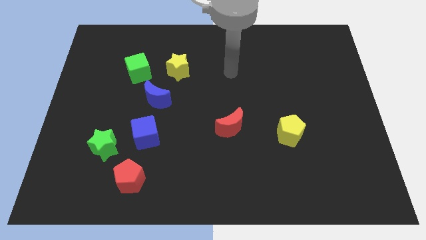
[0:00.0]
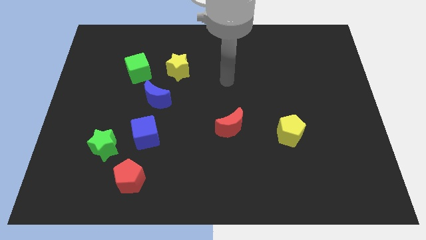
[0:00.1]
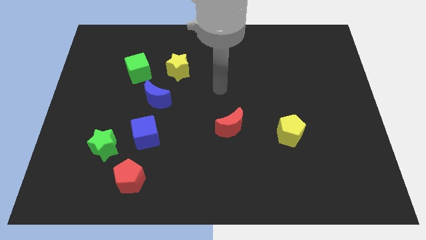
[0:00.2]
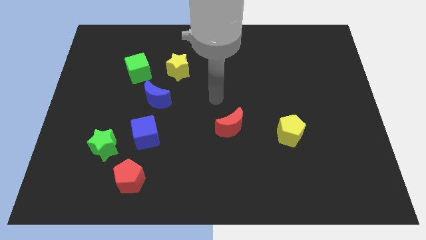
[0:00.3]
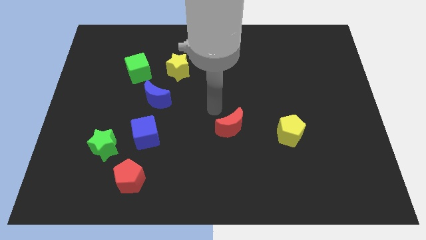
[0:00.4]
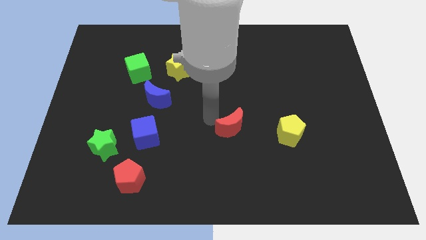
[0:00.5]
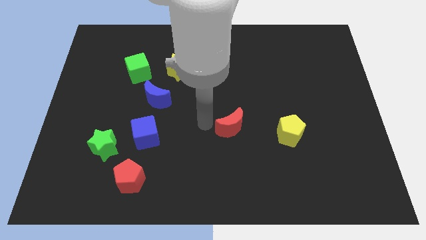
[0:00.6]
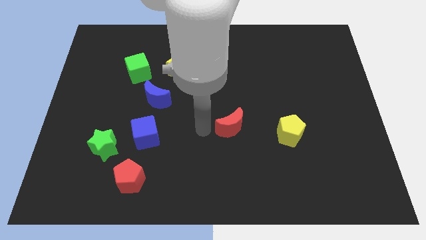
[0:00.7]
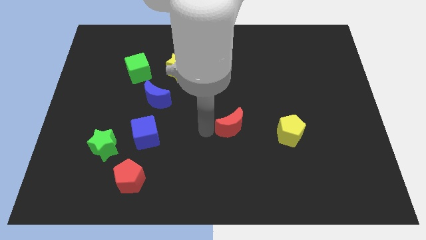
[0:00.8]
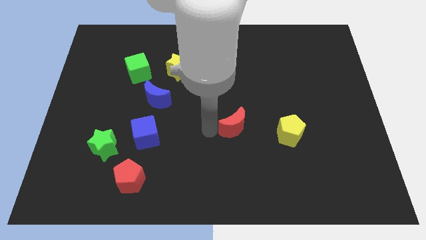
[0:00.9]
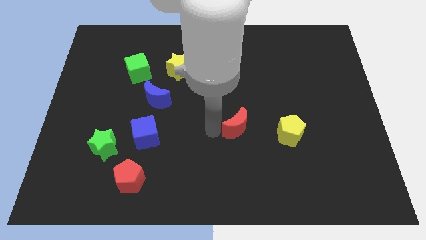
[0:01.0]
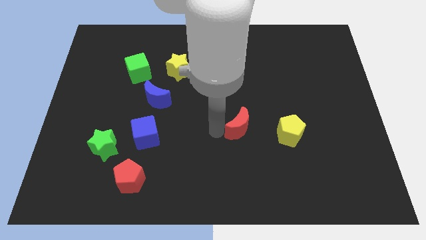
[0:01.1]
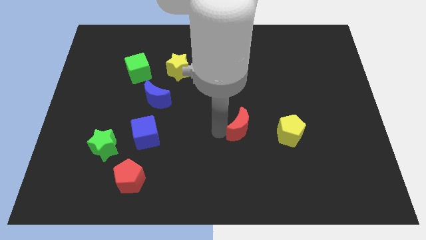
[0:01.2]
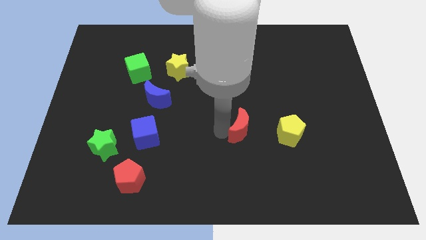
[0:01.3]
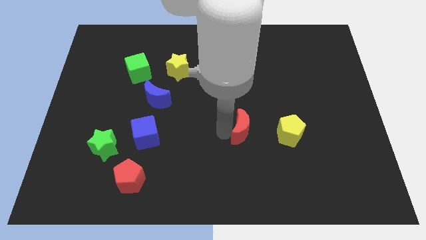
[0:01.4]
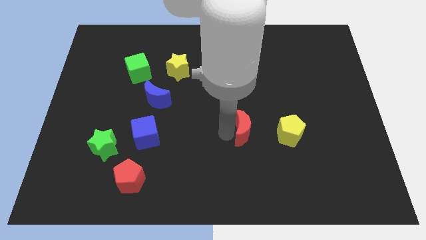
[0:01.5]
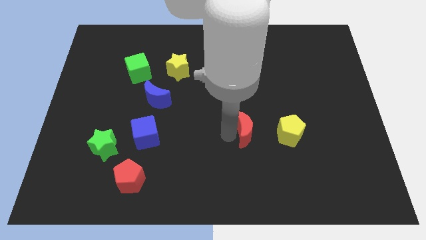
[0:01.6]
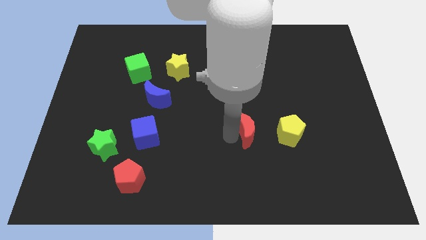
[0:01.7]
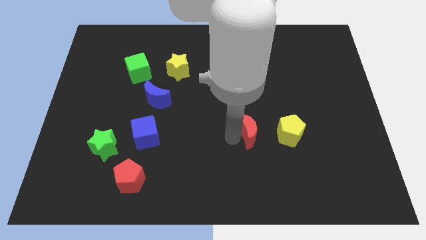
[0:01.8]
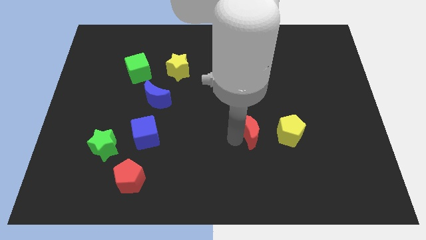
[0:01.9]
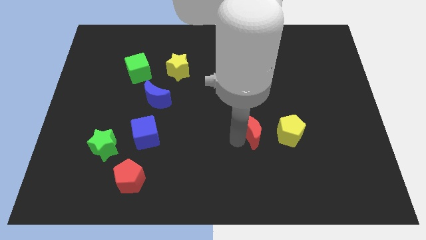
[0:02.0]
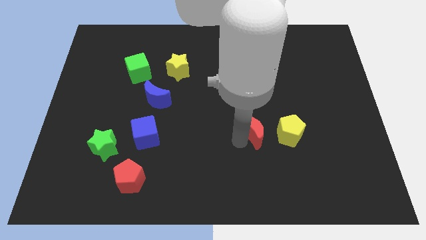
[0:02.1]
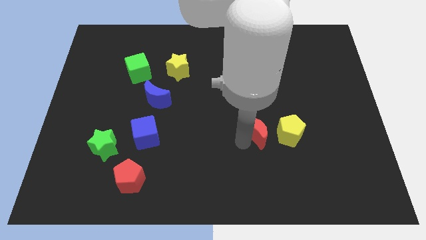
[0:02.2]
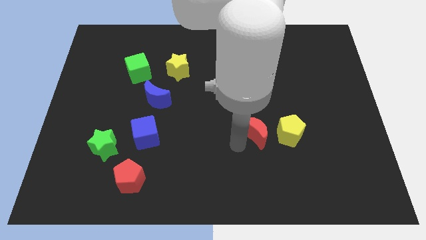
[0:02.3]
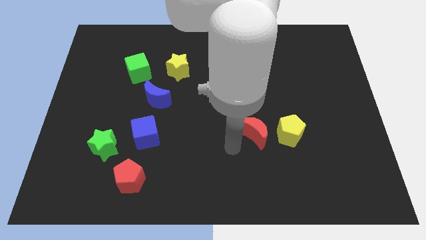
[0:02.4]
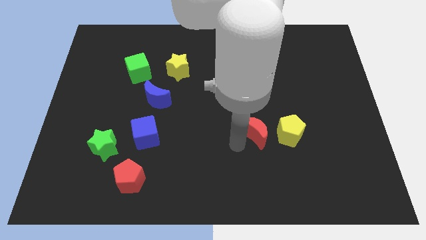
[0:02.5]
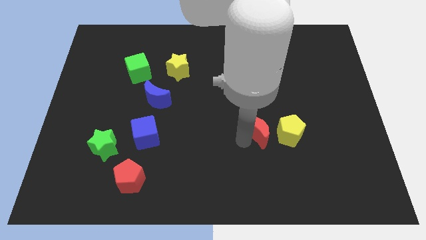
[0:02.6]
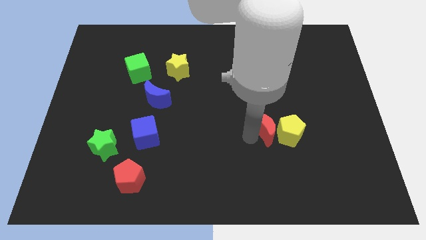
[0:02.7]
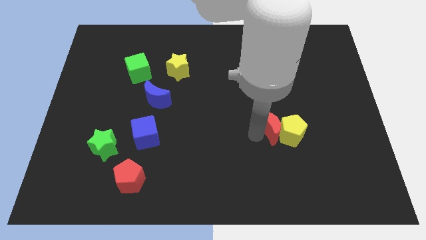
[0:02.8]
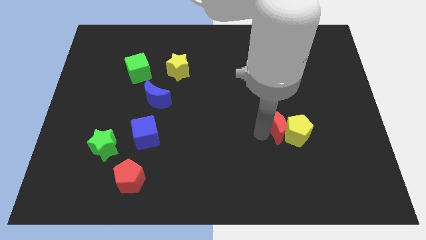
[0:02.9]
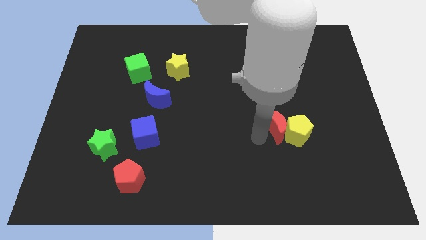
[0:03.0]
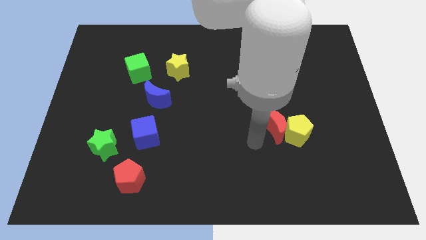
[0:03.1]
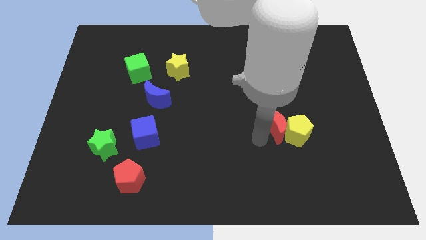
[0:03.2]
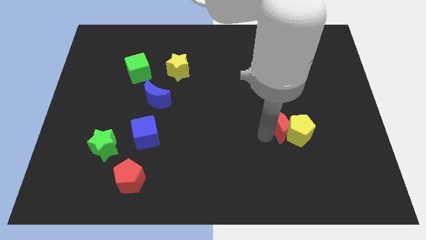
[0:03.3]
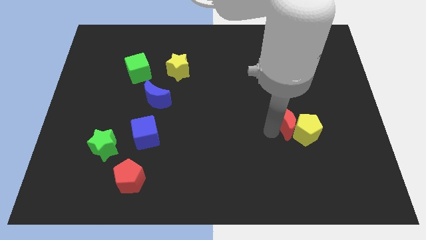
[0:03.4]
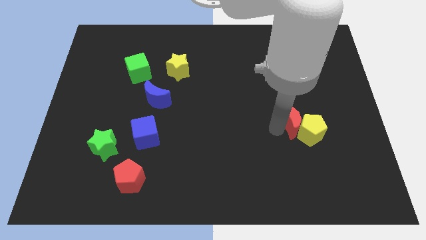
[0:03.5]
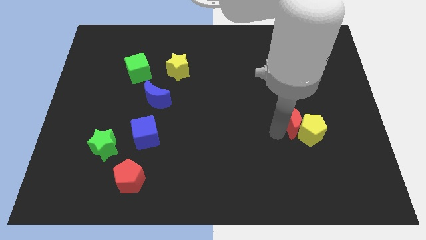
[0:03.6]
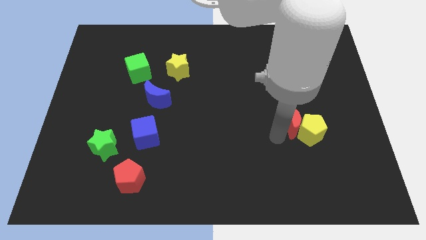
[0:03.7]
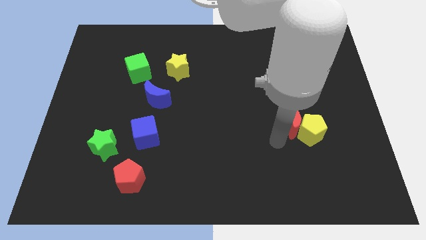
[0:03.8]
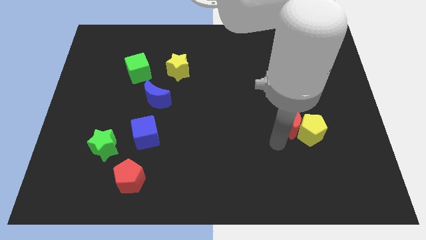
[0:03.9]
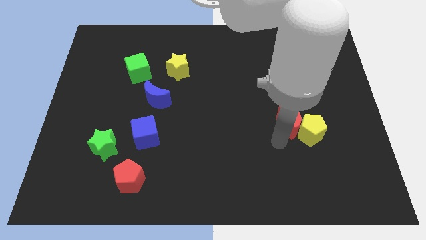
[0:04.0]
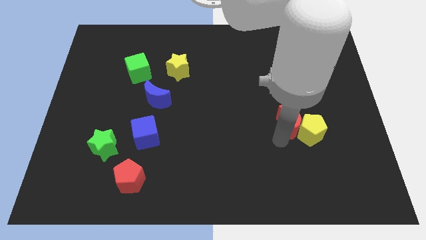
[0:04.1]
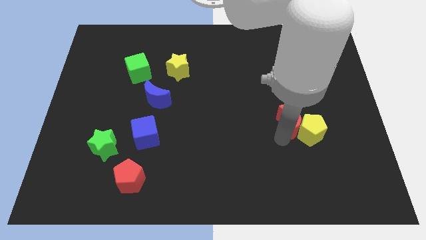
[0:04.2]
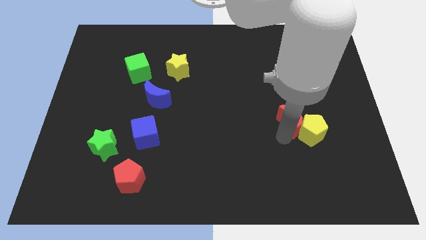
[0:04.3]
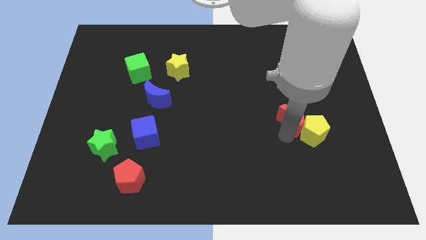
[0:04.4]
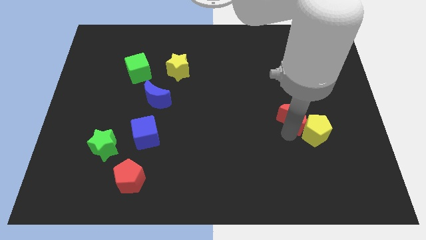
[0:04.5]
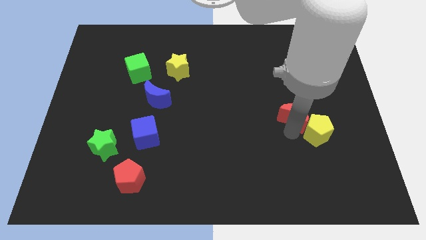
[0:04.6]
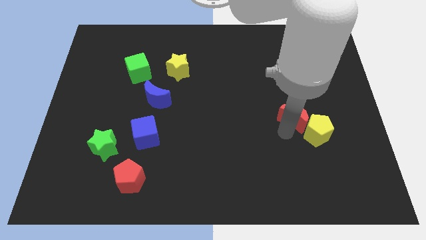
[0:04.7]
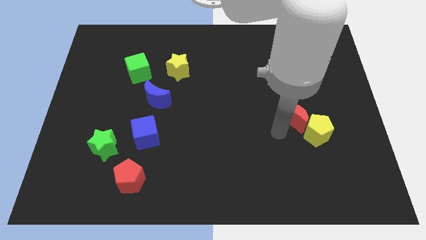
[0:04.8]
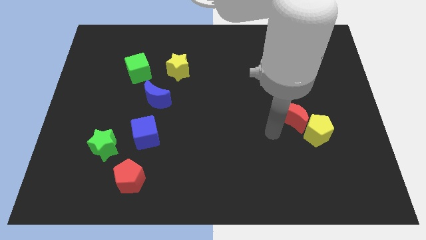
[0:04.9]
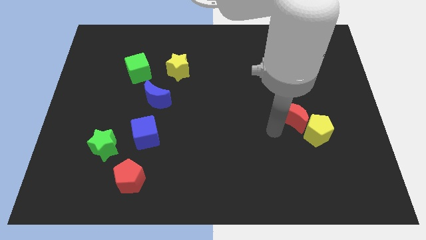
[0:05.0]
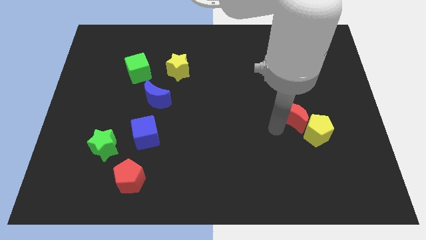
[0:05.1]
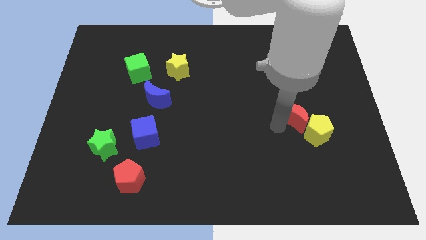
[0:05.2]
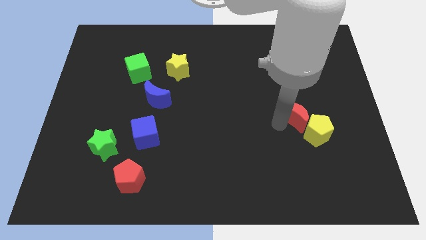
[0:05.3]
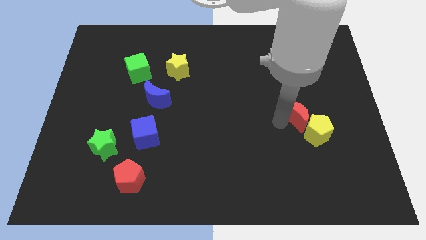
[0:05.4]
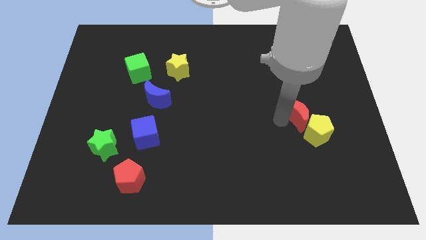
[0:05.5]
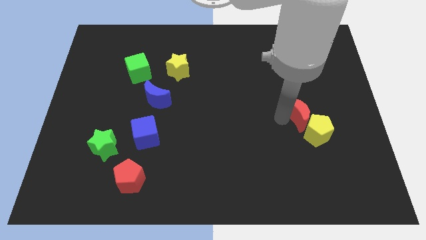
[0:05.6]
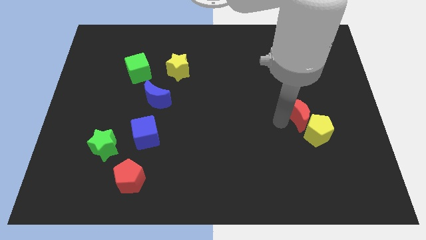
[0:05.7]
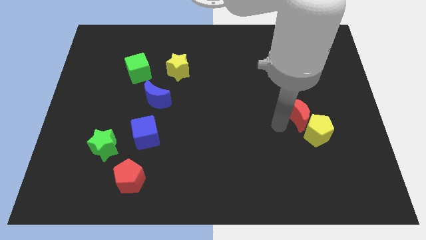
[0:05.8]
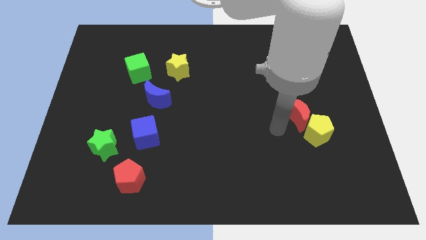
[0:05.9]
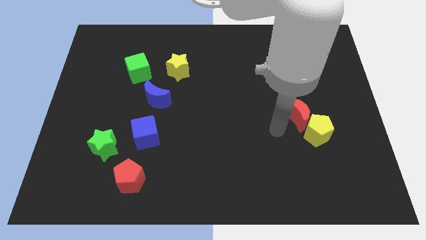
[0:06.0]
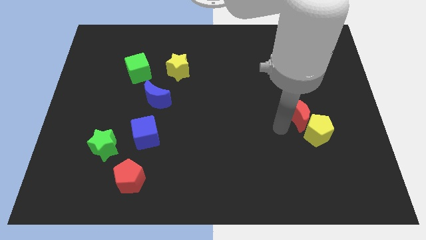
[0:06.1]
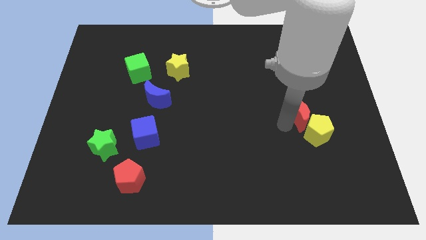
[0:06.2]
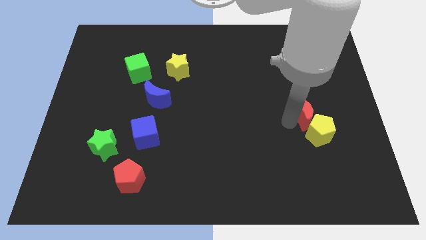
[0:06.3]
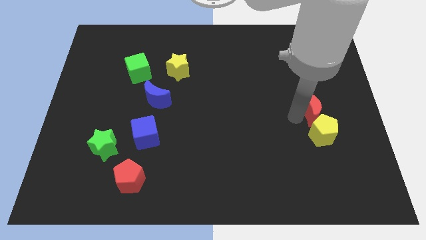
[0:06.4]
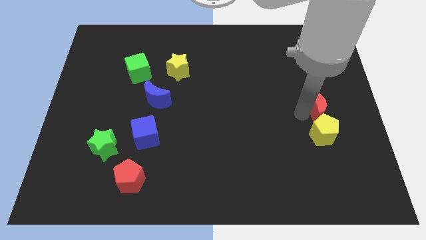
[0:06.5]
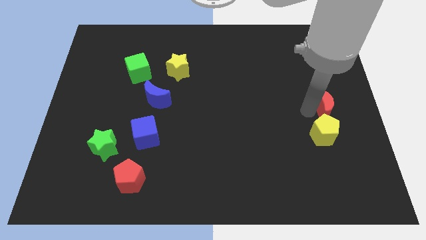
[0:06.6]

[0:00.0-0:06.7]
move the red moon to the center right
